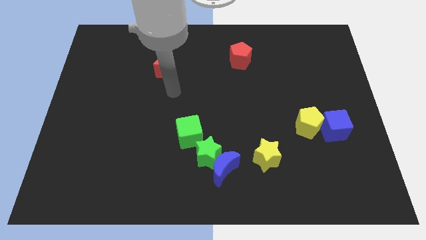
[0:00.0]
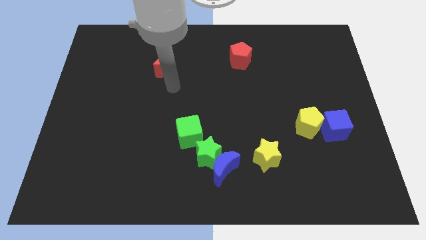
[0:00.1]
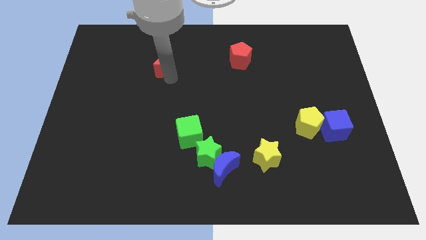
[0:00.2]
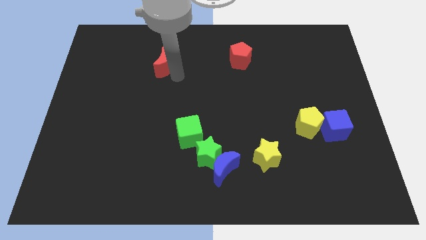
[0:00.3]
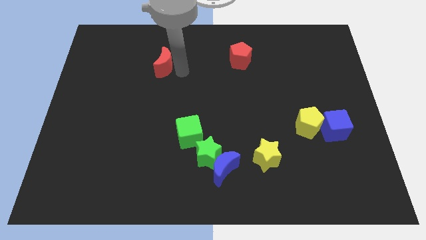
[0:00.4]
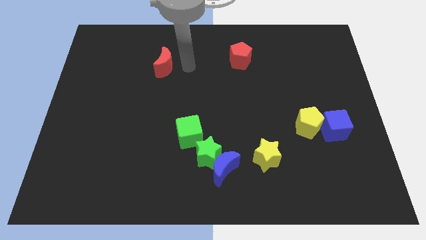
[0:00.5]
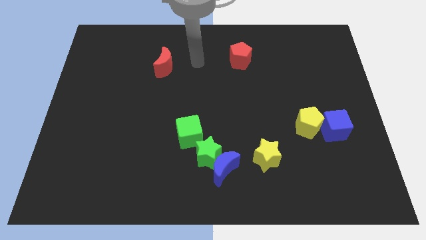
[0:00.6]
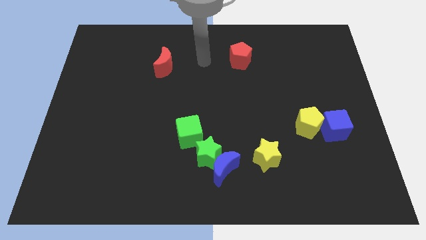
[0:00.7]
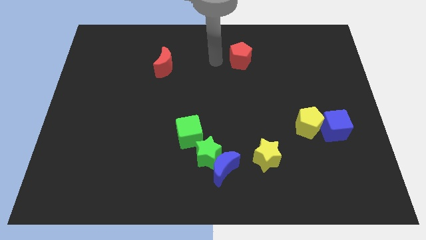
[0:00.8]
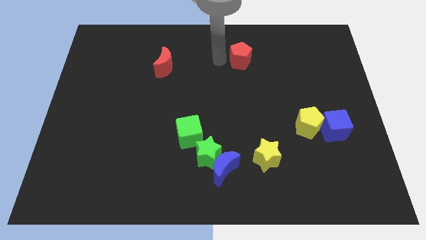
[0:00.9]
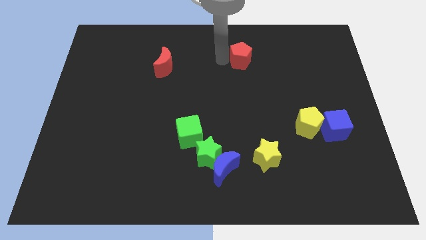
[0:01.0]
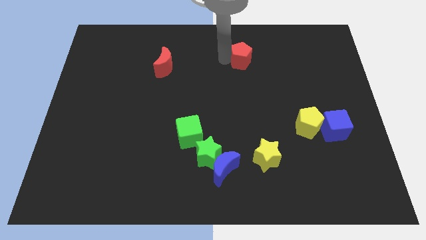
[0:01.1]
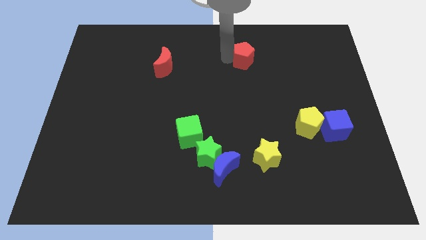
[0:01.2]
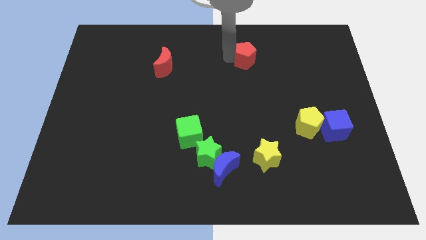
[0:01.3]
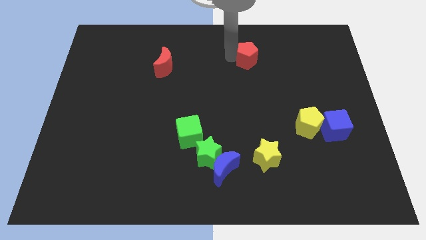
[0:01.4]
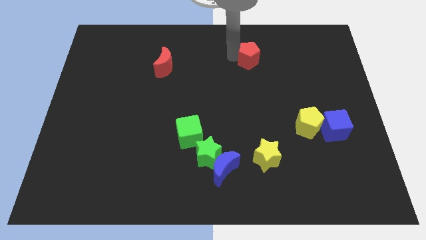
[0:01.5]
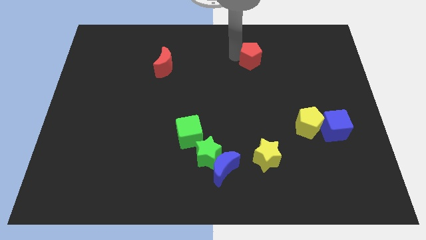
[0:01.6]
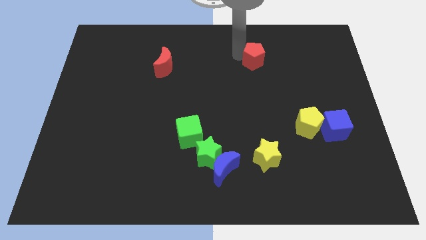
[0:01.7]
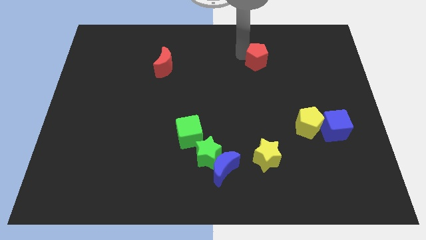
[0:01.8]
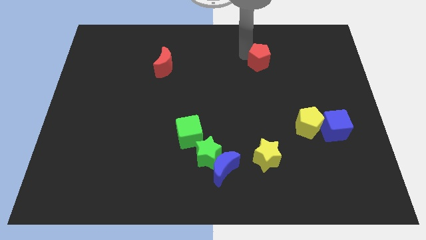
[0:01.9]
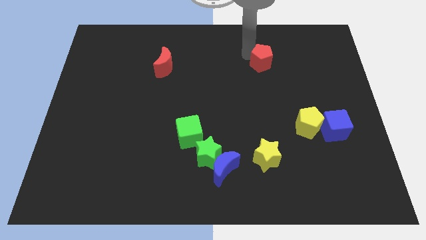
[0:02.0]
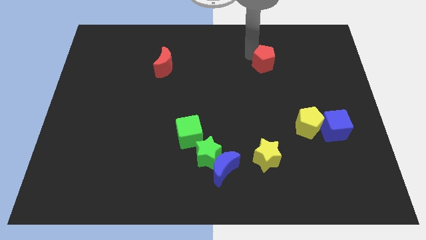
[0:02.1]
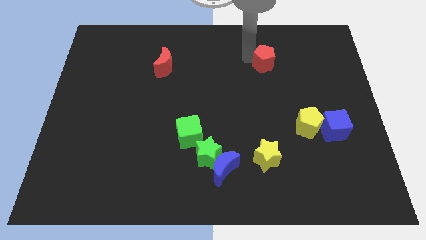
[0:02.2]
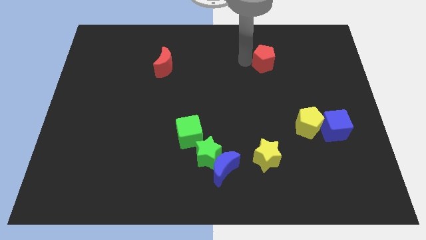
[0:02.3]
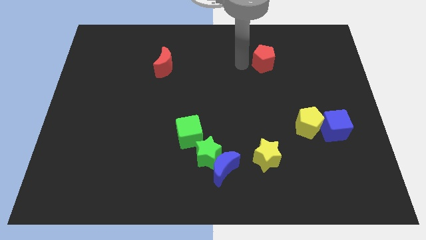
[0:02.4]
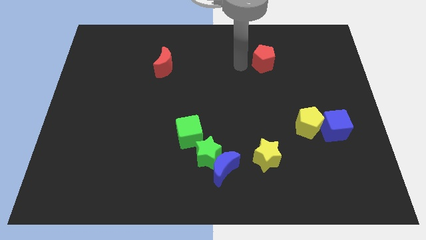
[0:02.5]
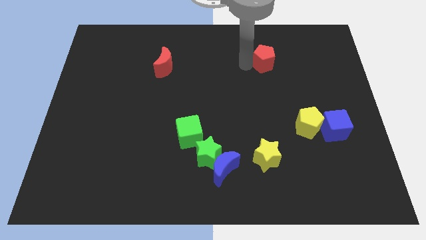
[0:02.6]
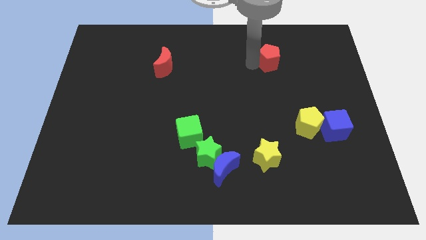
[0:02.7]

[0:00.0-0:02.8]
slightly push the red pentagon right

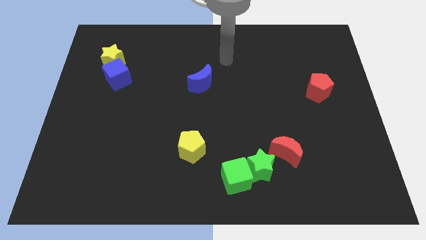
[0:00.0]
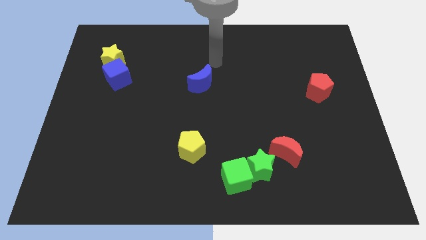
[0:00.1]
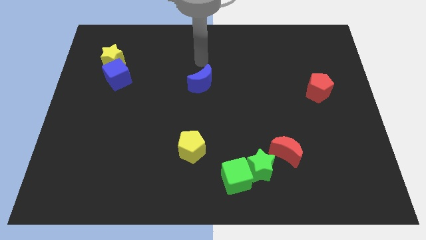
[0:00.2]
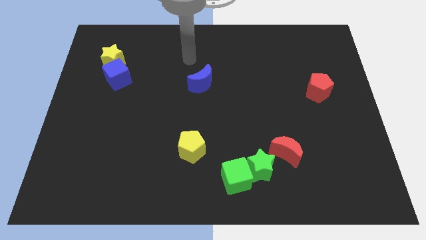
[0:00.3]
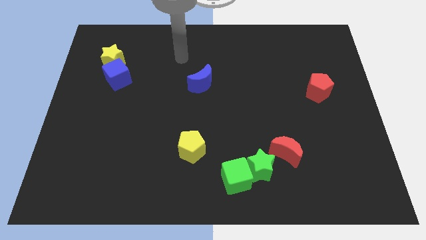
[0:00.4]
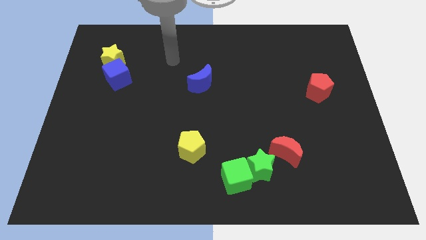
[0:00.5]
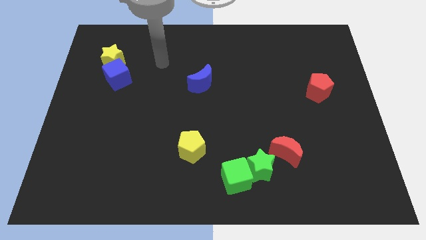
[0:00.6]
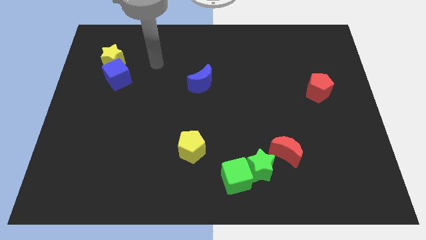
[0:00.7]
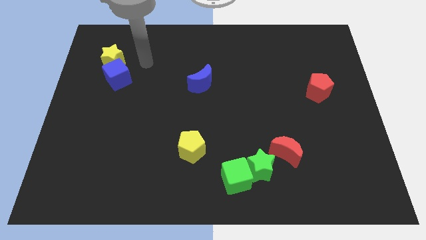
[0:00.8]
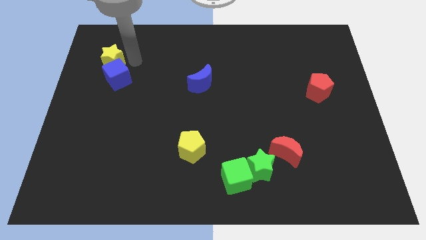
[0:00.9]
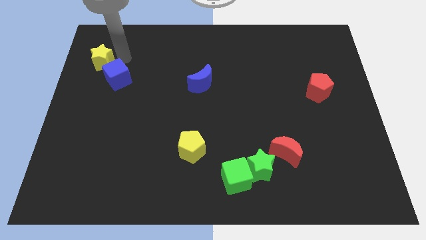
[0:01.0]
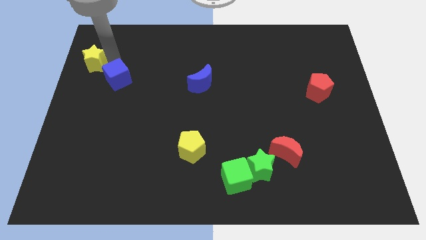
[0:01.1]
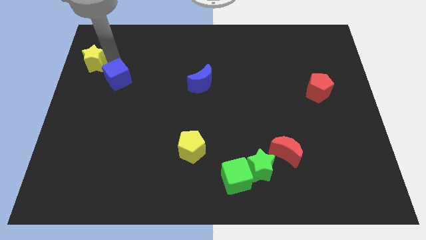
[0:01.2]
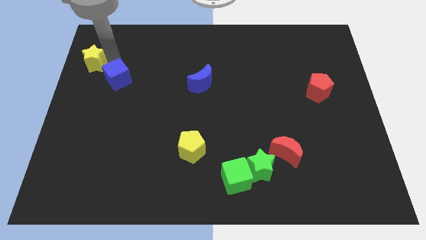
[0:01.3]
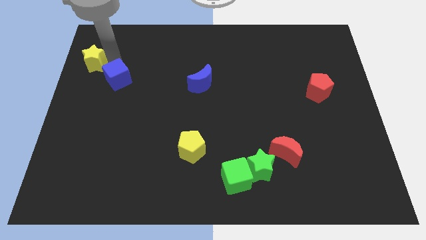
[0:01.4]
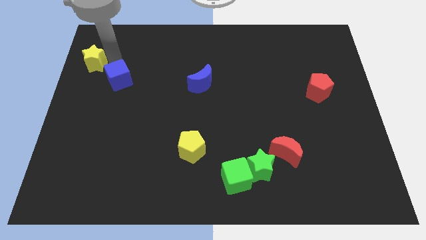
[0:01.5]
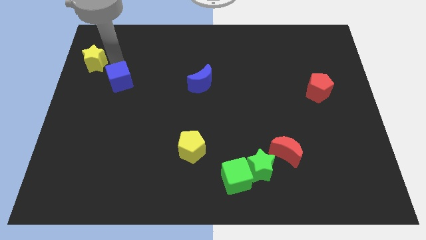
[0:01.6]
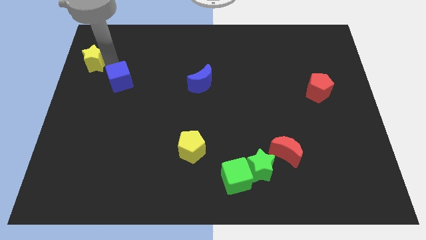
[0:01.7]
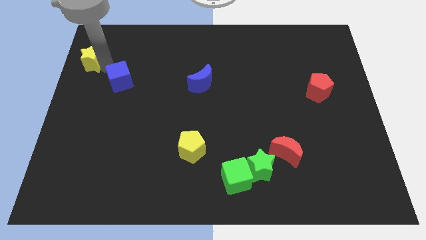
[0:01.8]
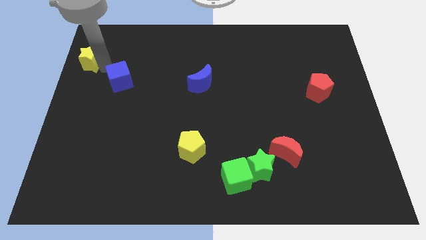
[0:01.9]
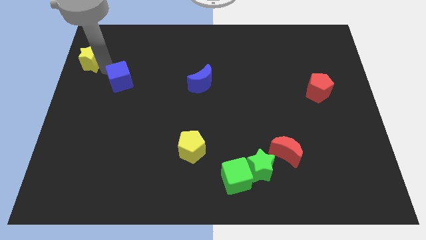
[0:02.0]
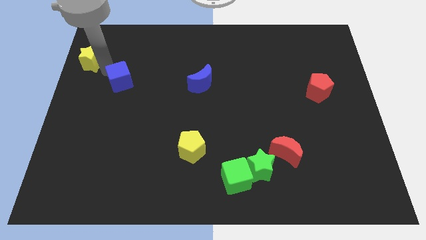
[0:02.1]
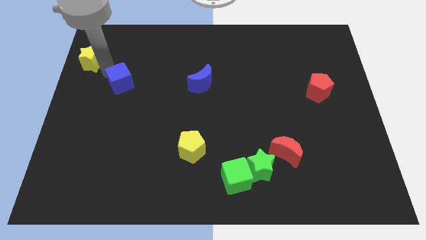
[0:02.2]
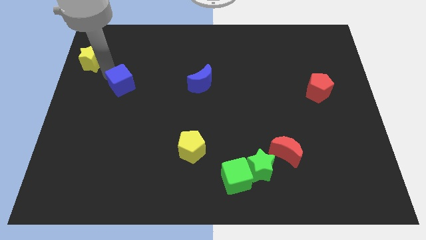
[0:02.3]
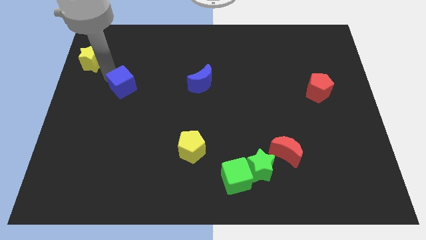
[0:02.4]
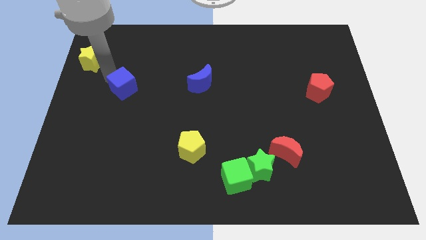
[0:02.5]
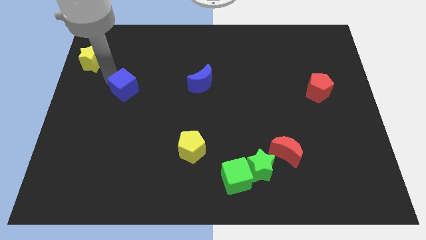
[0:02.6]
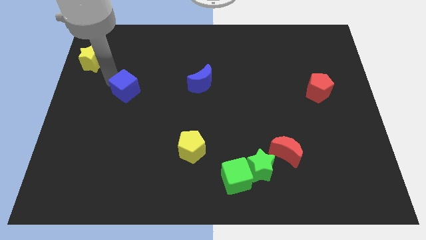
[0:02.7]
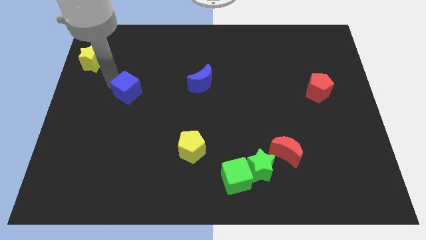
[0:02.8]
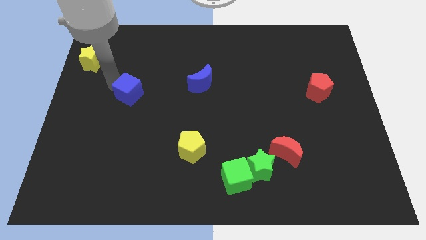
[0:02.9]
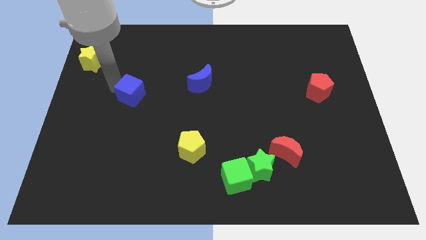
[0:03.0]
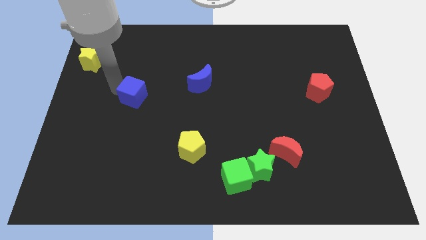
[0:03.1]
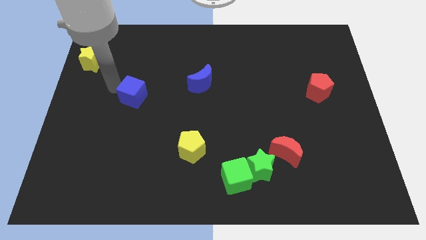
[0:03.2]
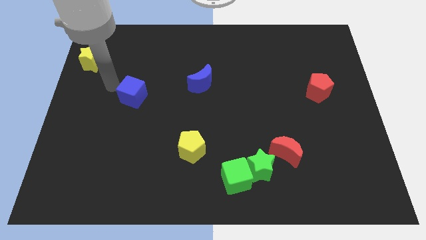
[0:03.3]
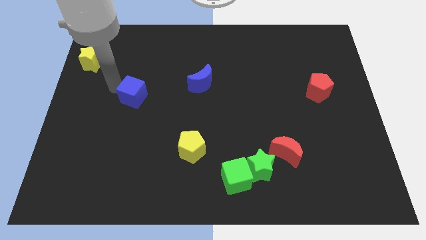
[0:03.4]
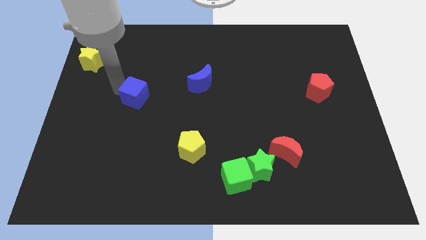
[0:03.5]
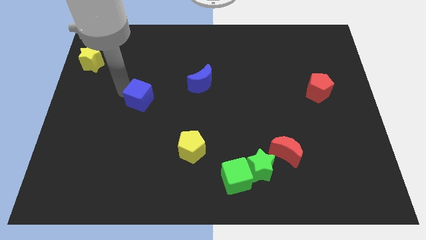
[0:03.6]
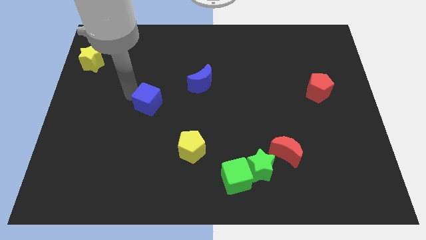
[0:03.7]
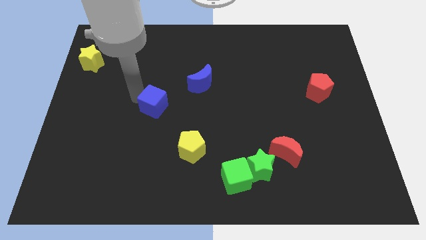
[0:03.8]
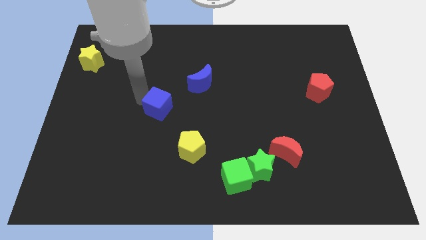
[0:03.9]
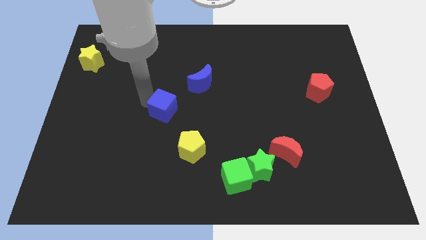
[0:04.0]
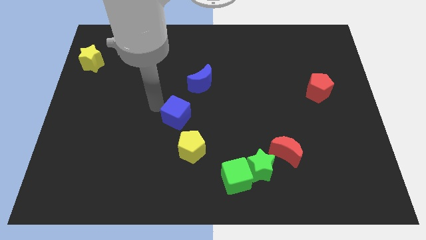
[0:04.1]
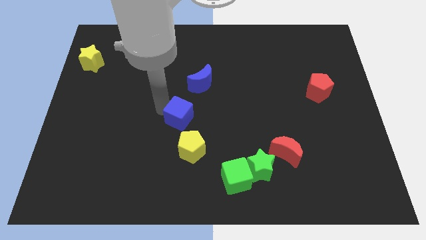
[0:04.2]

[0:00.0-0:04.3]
push the blue cube down and then to the right

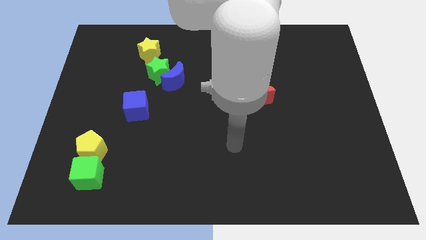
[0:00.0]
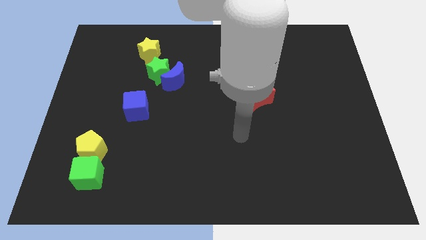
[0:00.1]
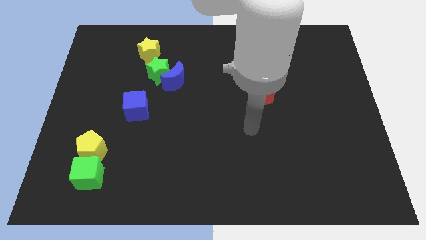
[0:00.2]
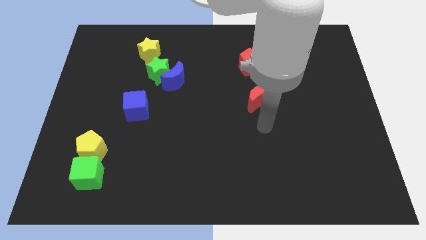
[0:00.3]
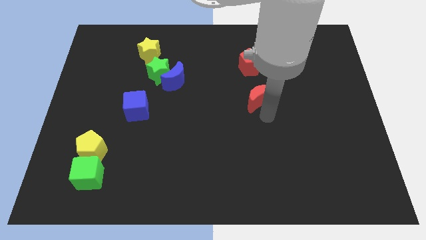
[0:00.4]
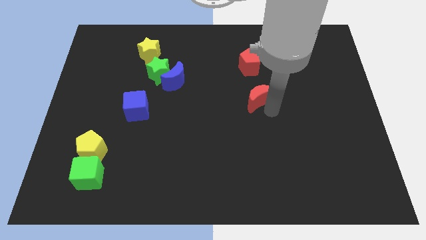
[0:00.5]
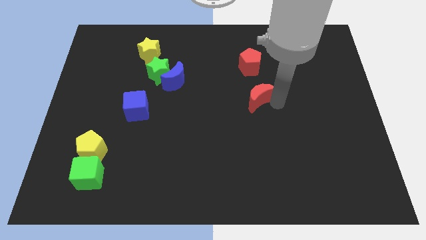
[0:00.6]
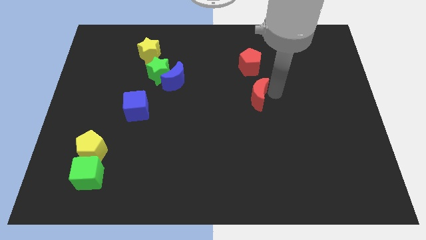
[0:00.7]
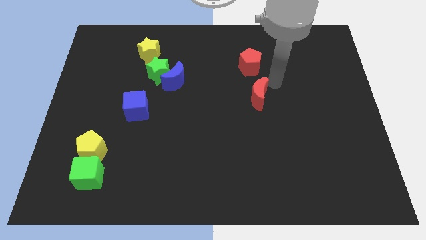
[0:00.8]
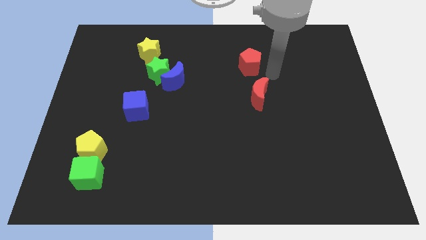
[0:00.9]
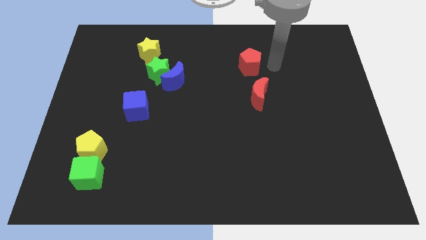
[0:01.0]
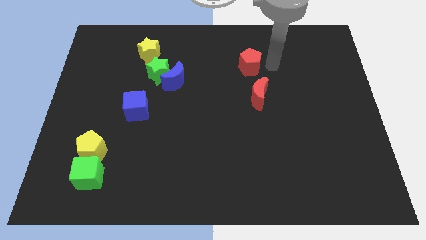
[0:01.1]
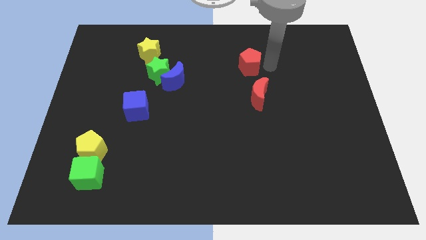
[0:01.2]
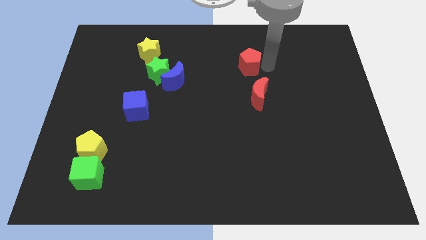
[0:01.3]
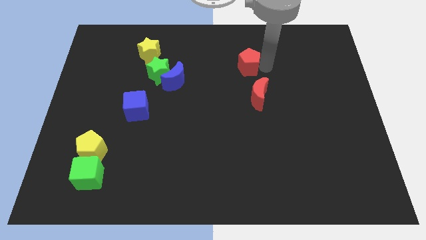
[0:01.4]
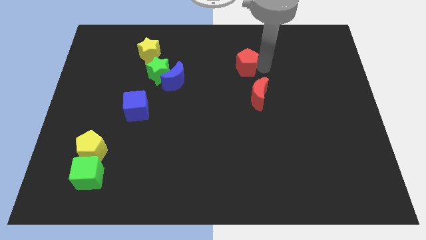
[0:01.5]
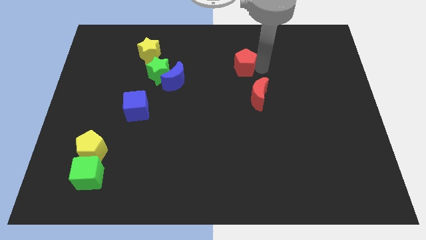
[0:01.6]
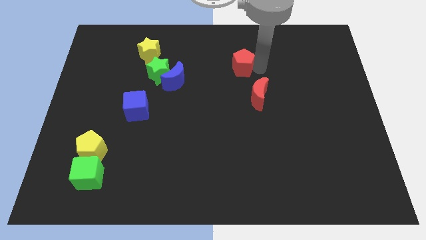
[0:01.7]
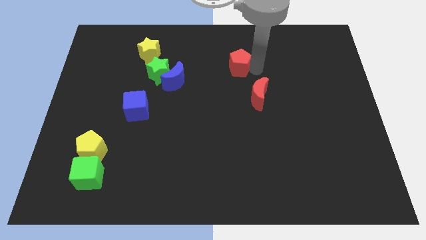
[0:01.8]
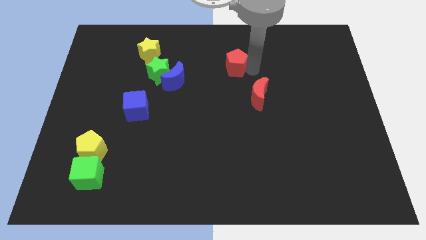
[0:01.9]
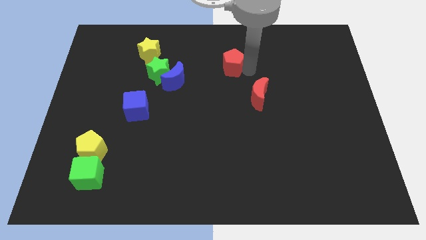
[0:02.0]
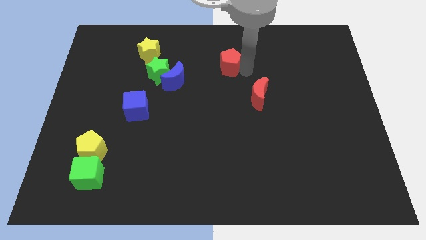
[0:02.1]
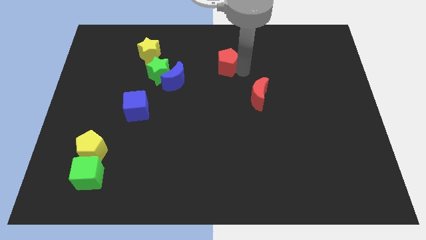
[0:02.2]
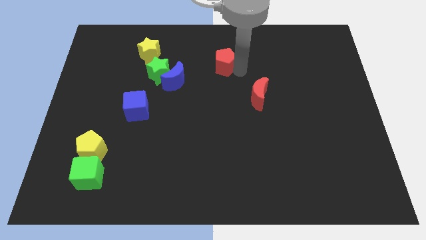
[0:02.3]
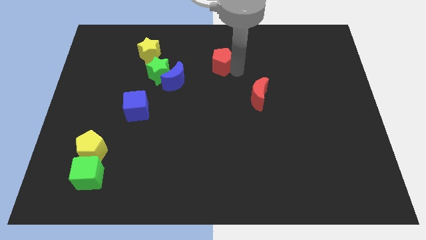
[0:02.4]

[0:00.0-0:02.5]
slightly push the red pentagon left
